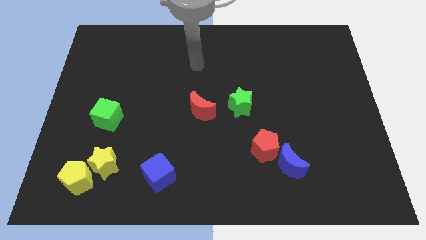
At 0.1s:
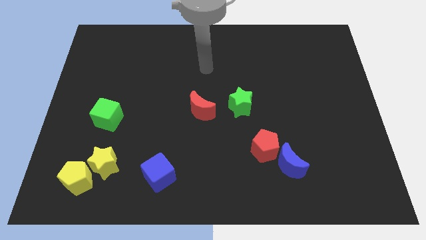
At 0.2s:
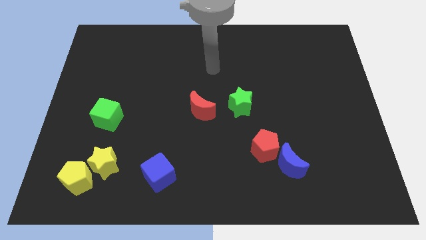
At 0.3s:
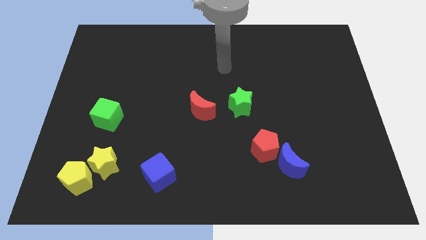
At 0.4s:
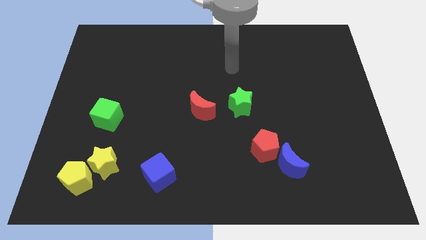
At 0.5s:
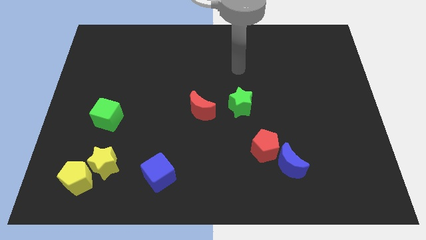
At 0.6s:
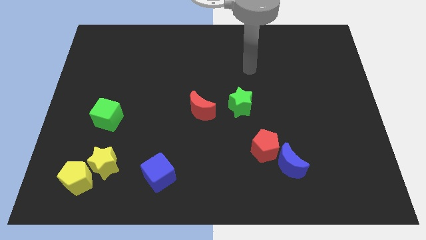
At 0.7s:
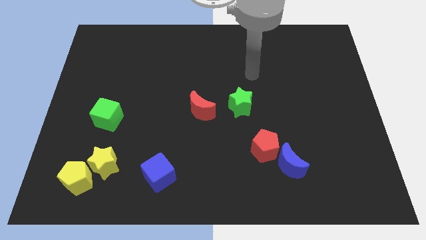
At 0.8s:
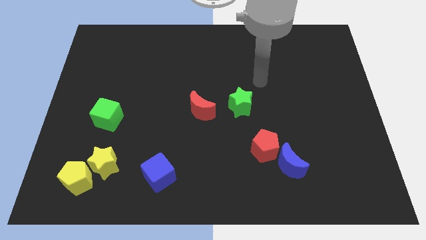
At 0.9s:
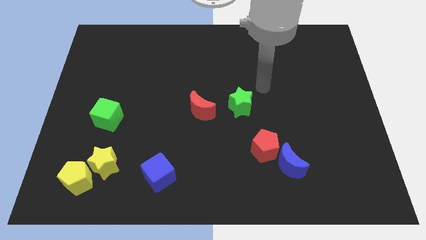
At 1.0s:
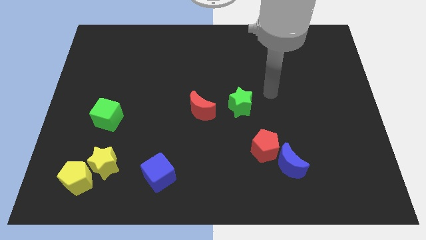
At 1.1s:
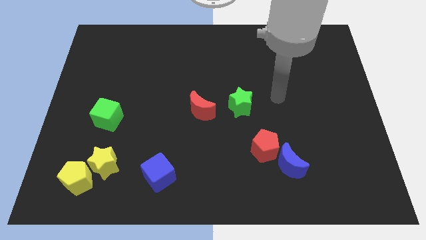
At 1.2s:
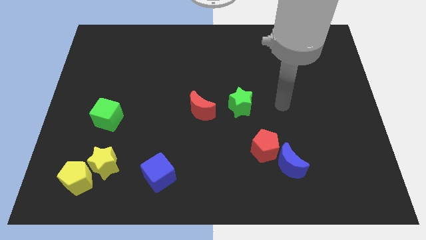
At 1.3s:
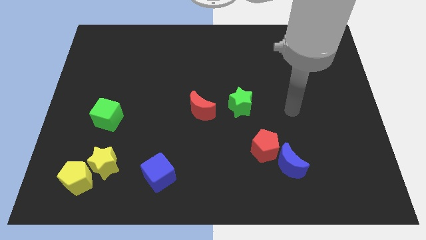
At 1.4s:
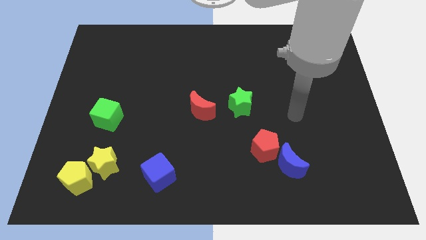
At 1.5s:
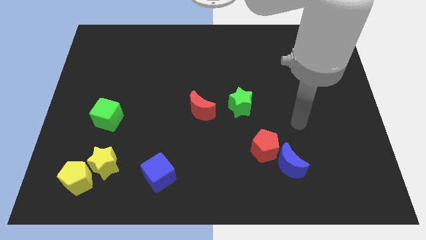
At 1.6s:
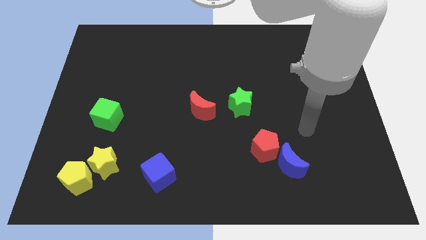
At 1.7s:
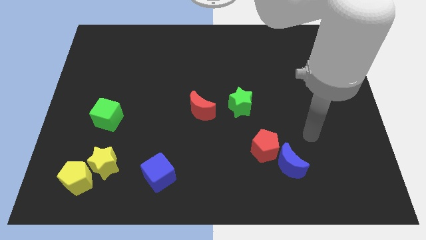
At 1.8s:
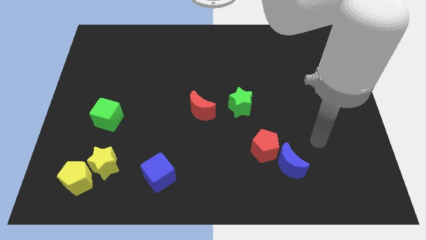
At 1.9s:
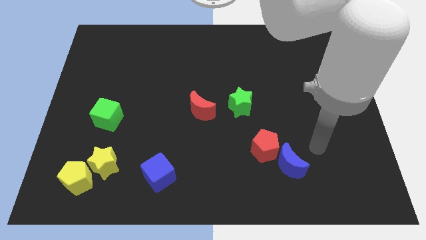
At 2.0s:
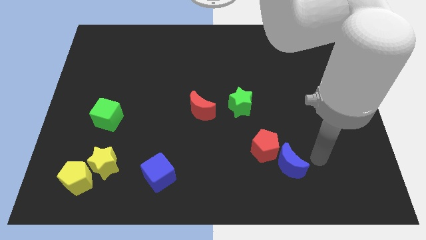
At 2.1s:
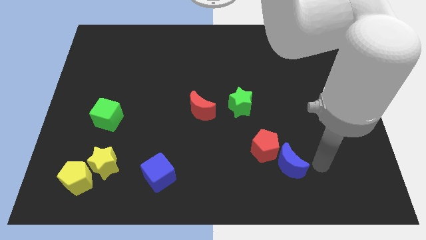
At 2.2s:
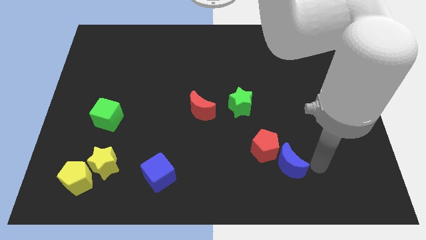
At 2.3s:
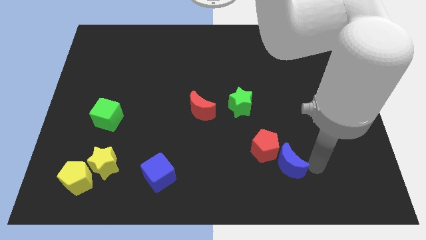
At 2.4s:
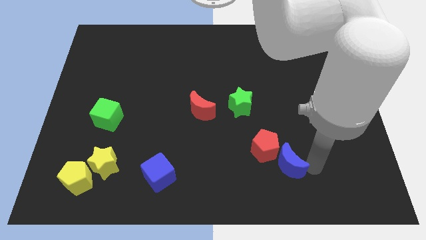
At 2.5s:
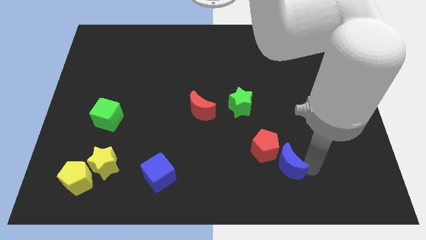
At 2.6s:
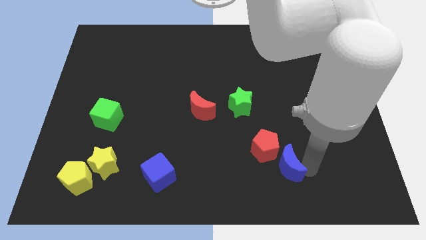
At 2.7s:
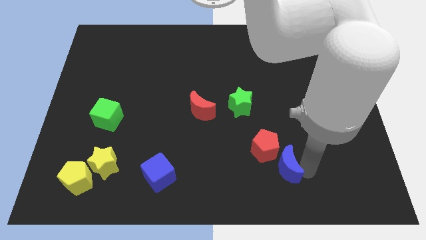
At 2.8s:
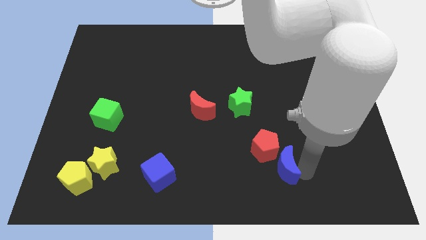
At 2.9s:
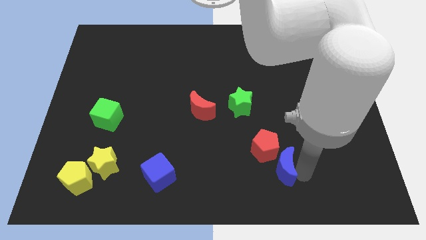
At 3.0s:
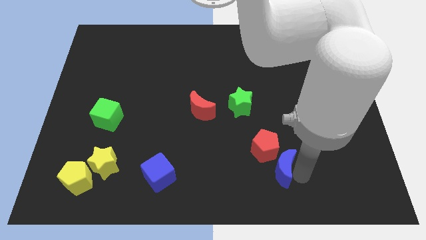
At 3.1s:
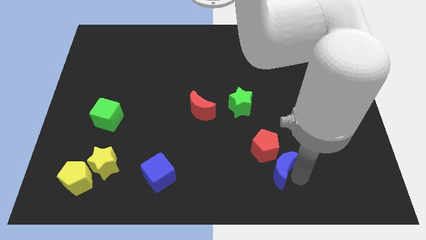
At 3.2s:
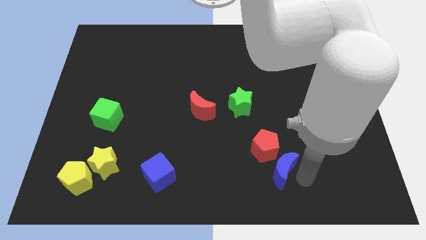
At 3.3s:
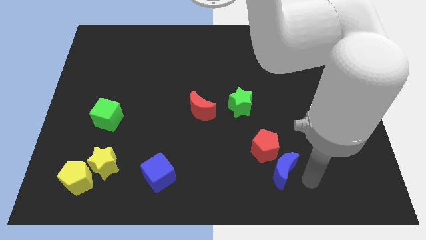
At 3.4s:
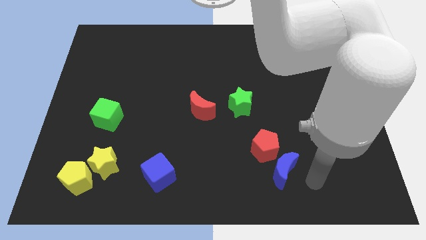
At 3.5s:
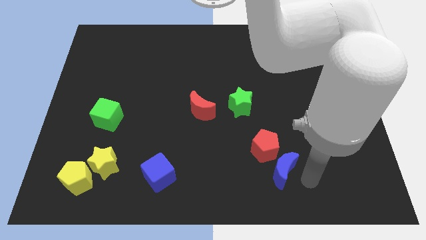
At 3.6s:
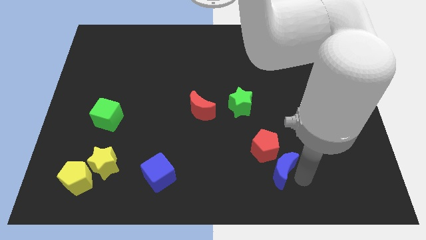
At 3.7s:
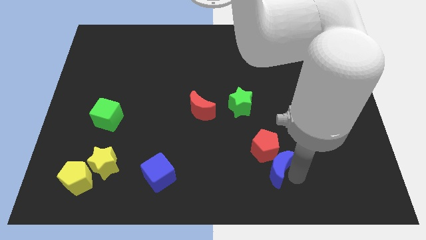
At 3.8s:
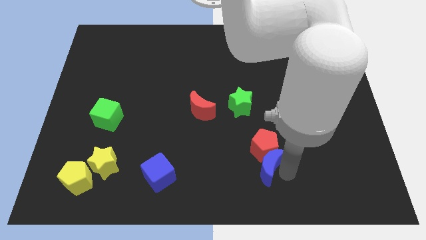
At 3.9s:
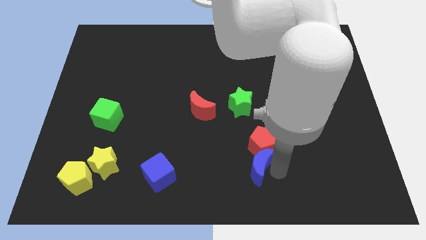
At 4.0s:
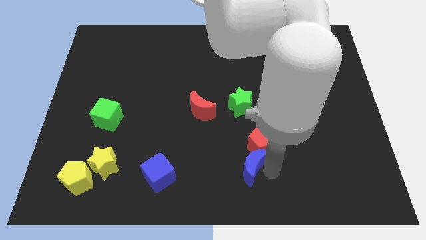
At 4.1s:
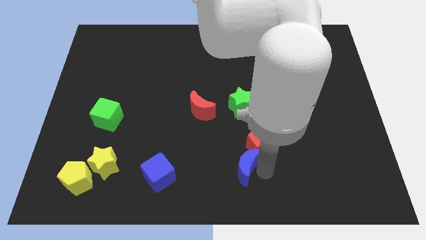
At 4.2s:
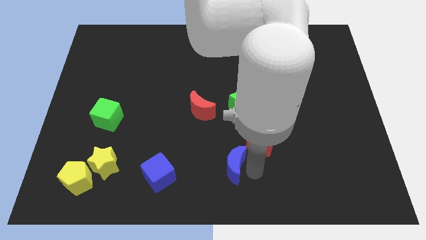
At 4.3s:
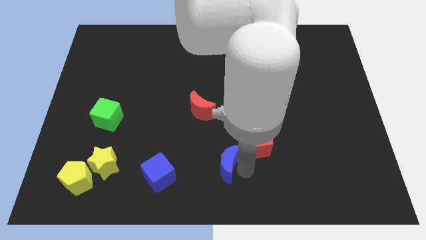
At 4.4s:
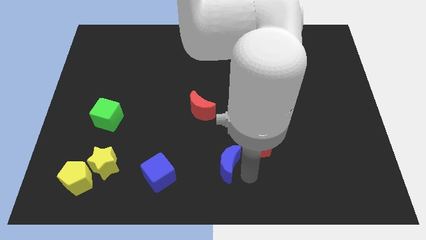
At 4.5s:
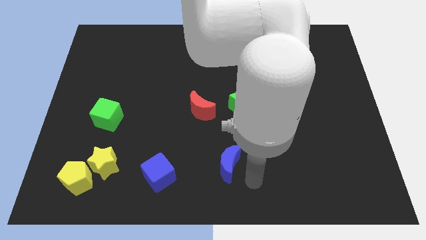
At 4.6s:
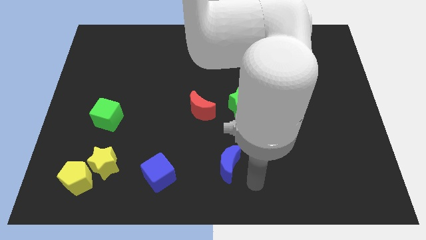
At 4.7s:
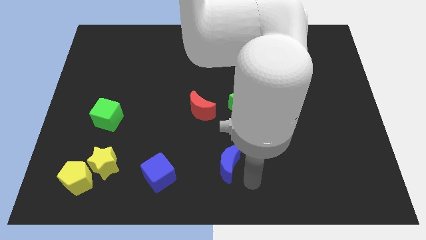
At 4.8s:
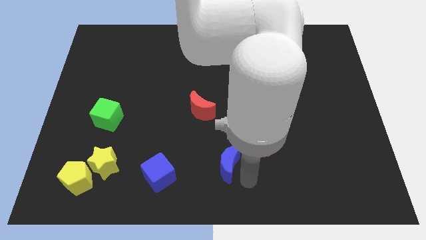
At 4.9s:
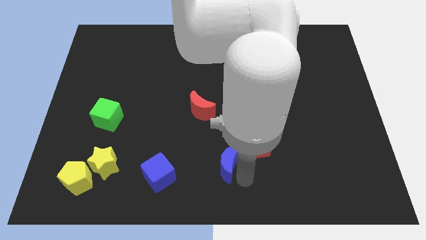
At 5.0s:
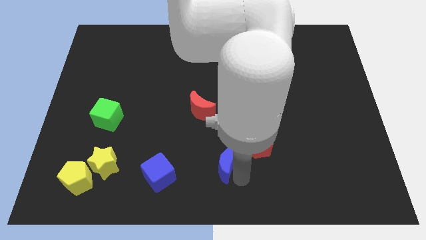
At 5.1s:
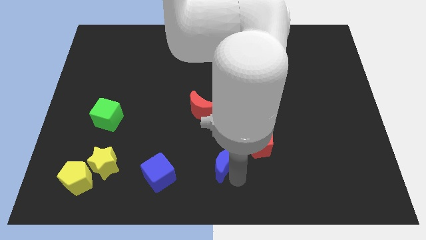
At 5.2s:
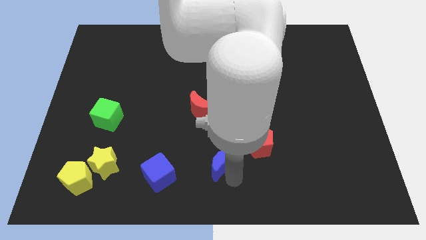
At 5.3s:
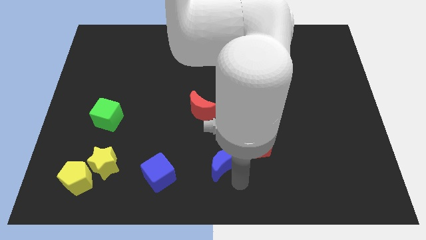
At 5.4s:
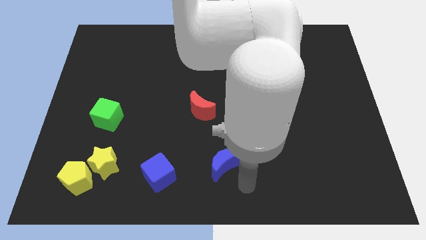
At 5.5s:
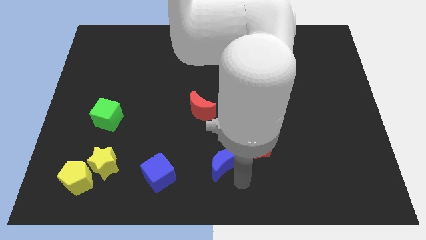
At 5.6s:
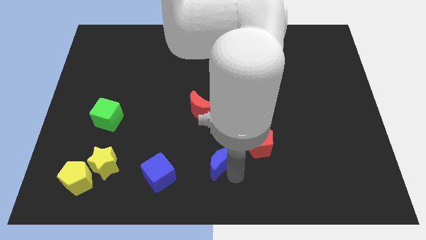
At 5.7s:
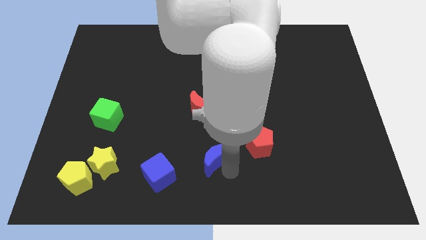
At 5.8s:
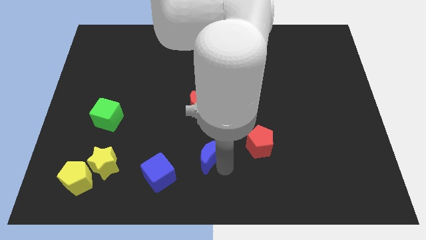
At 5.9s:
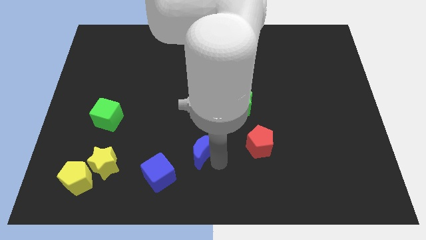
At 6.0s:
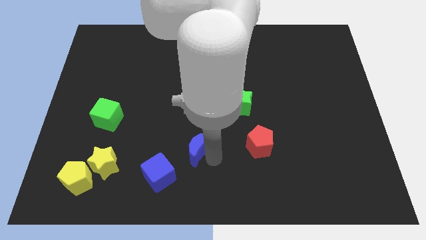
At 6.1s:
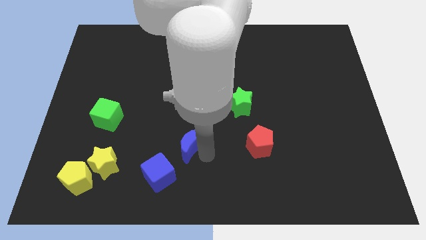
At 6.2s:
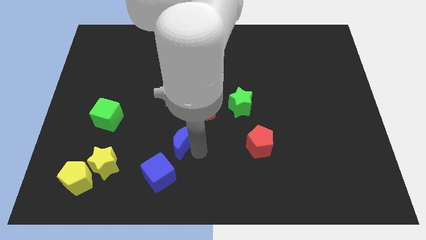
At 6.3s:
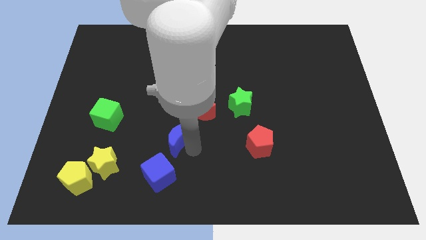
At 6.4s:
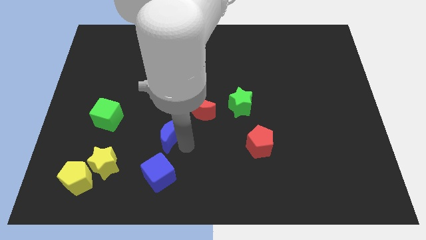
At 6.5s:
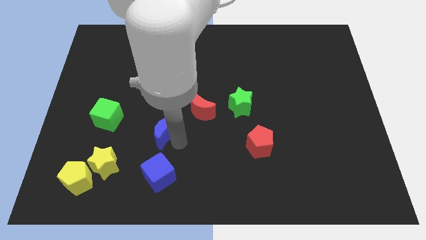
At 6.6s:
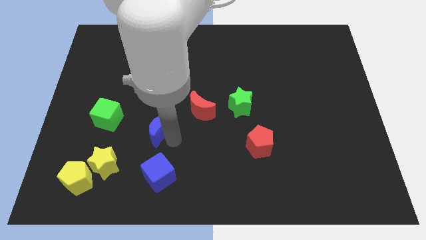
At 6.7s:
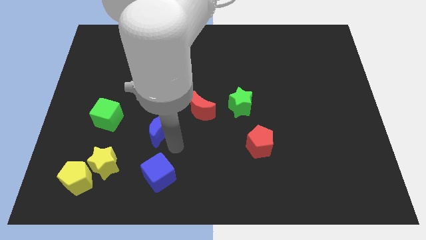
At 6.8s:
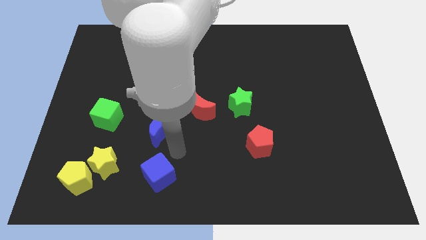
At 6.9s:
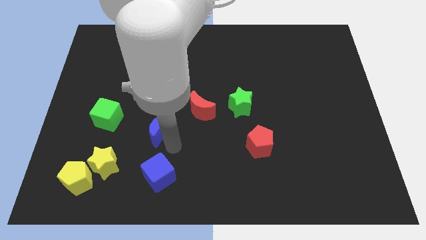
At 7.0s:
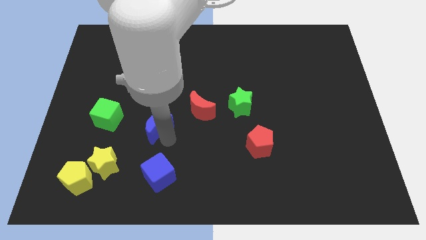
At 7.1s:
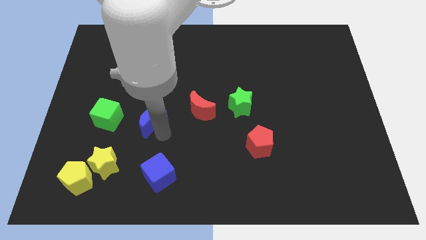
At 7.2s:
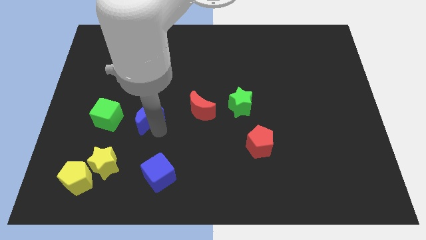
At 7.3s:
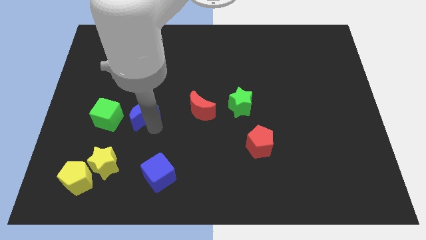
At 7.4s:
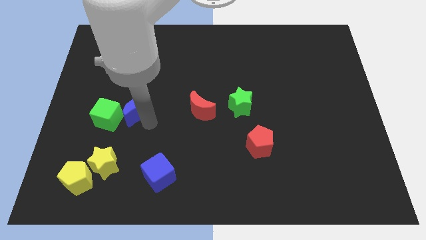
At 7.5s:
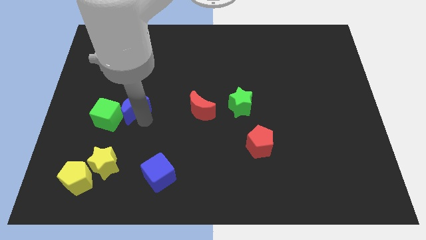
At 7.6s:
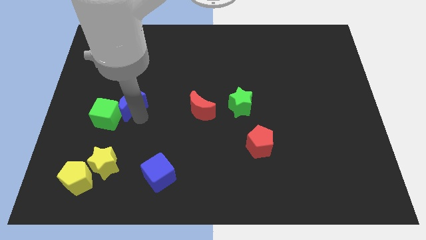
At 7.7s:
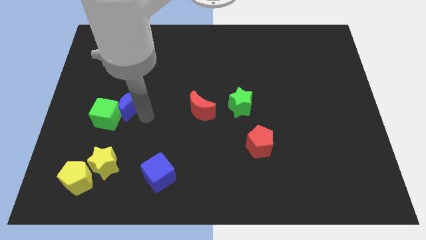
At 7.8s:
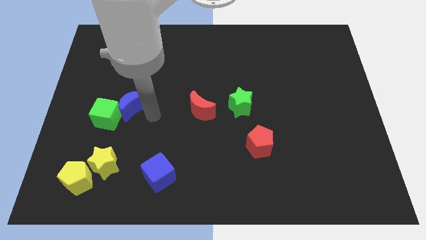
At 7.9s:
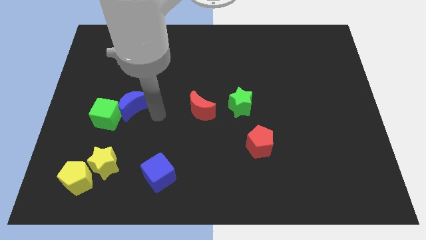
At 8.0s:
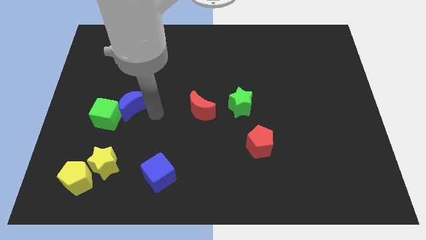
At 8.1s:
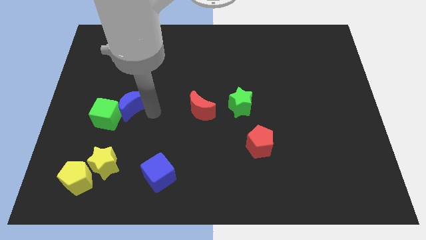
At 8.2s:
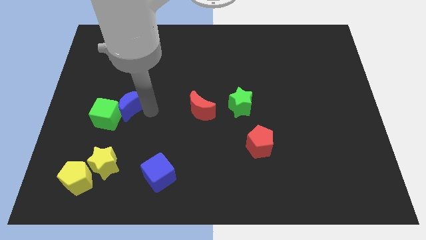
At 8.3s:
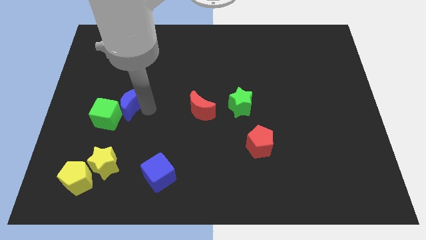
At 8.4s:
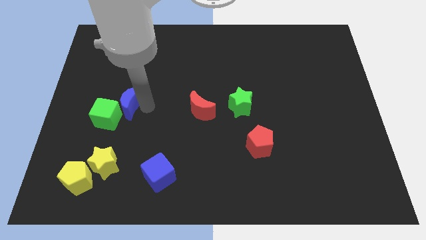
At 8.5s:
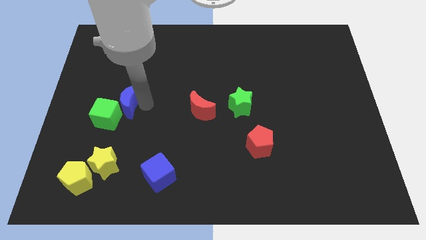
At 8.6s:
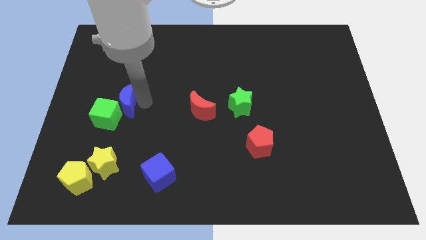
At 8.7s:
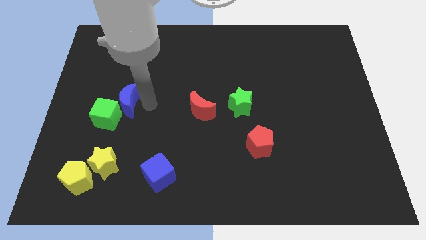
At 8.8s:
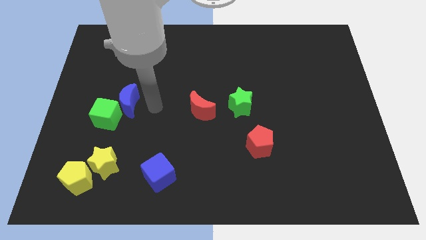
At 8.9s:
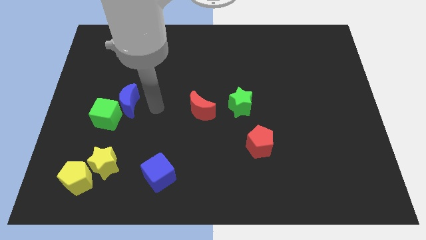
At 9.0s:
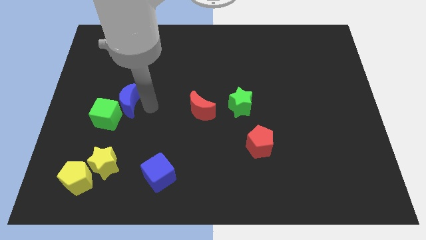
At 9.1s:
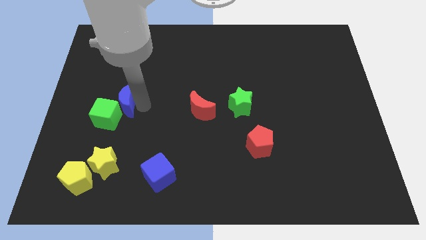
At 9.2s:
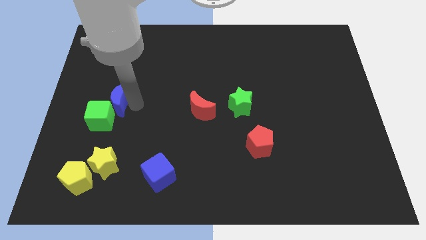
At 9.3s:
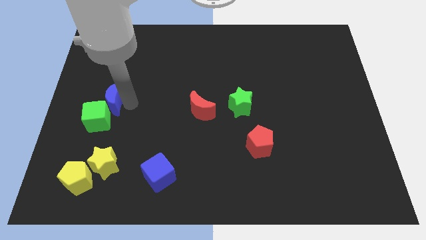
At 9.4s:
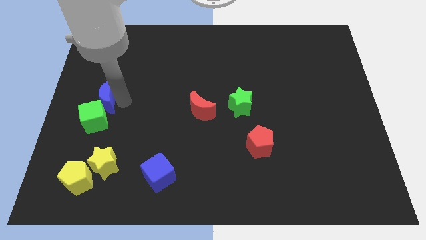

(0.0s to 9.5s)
move the blue moon to the left side of the board
